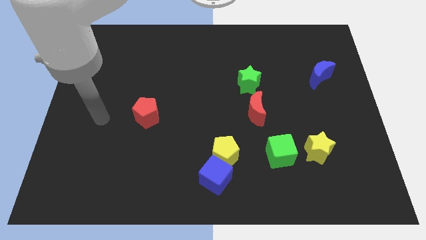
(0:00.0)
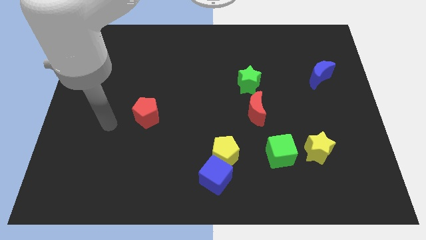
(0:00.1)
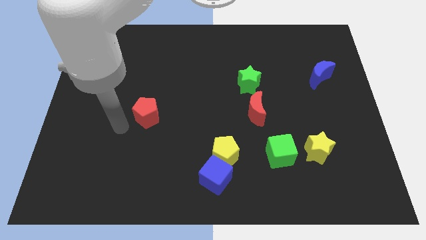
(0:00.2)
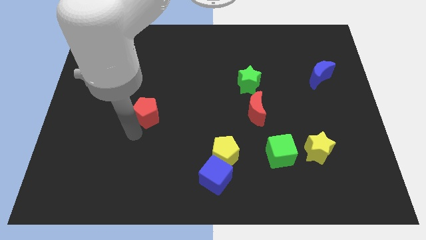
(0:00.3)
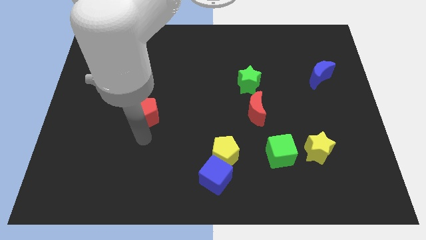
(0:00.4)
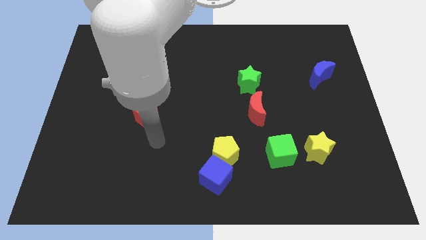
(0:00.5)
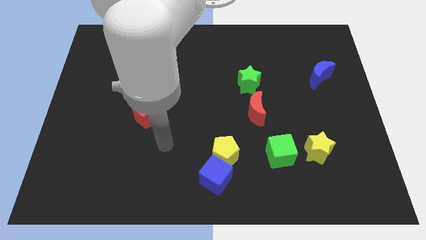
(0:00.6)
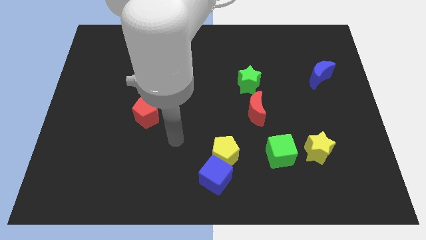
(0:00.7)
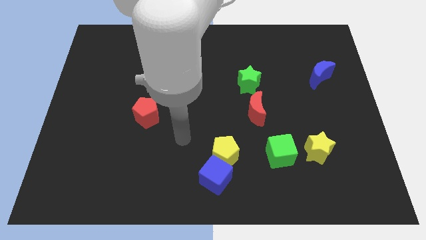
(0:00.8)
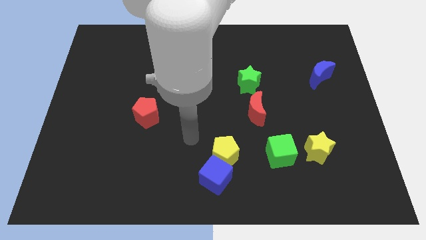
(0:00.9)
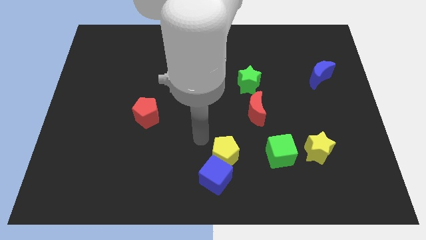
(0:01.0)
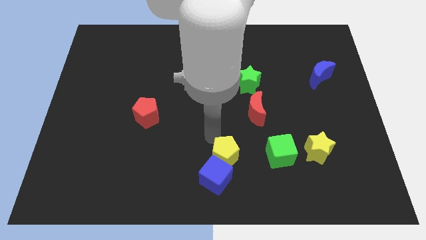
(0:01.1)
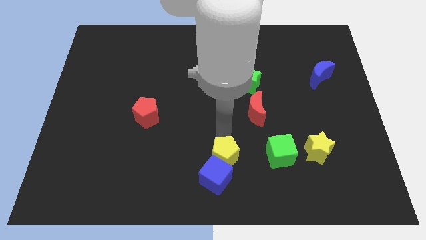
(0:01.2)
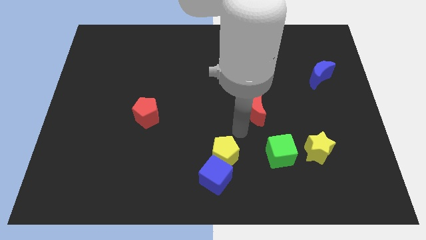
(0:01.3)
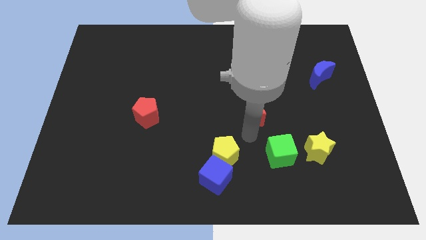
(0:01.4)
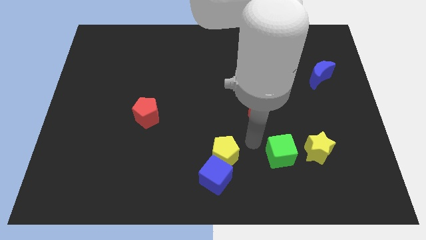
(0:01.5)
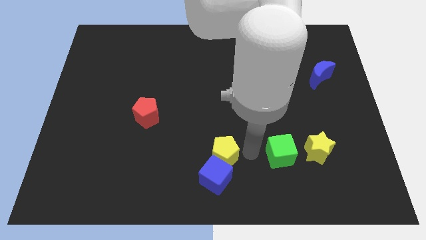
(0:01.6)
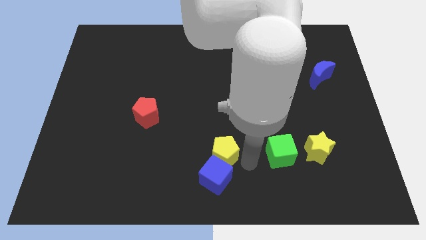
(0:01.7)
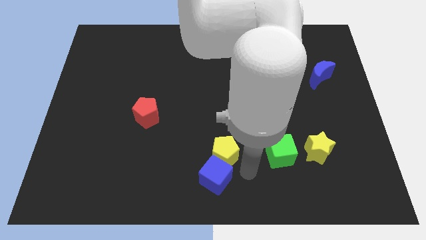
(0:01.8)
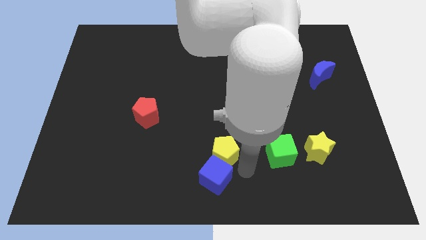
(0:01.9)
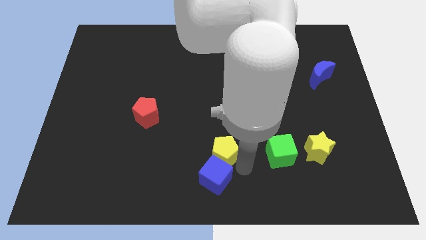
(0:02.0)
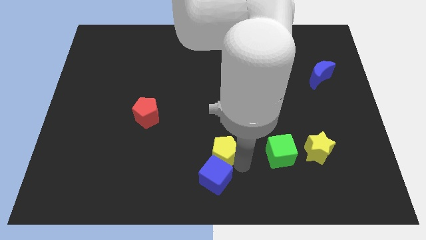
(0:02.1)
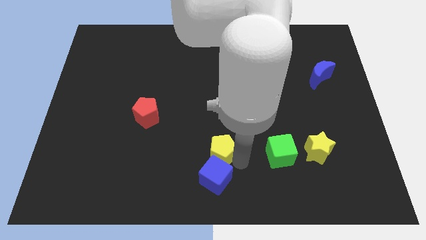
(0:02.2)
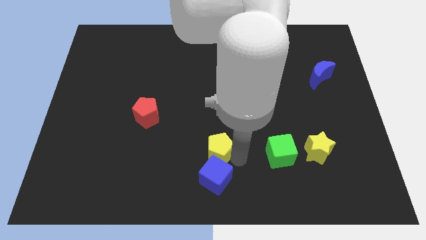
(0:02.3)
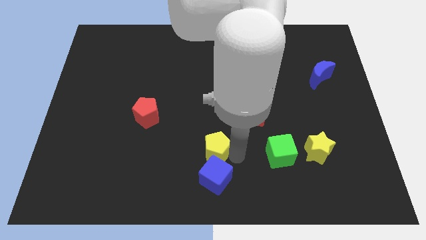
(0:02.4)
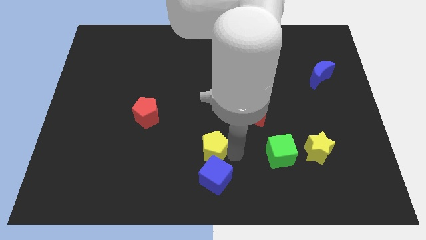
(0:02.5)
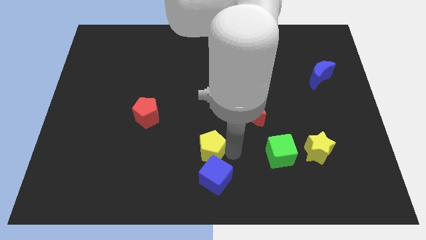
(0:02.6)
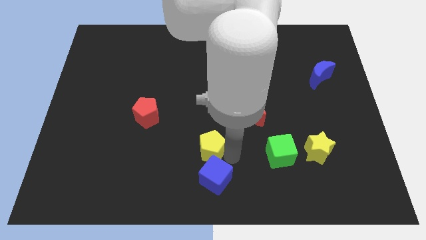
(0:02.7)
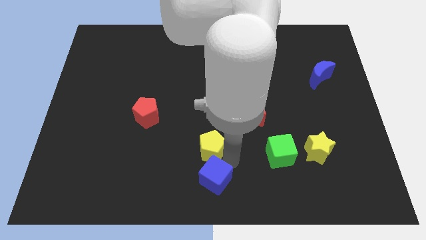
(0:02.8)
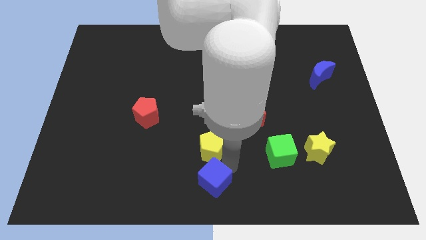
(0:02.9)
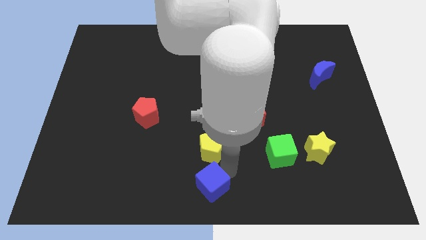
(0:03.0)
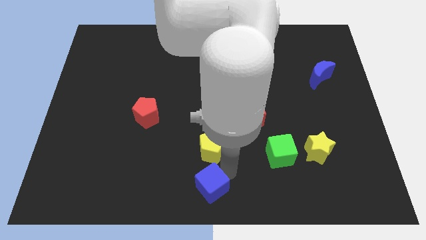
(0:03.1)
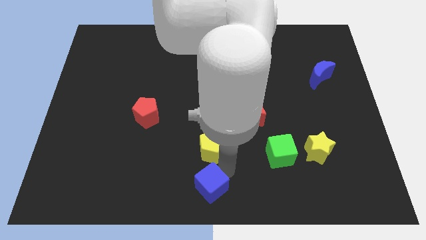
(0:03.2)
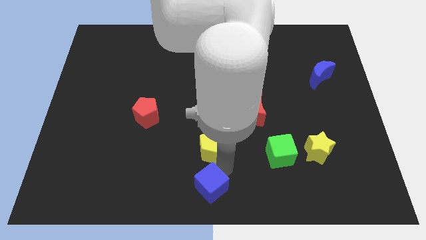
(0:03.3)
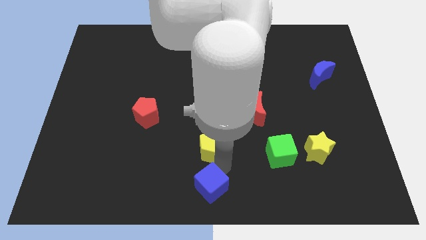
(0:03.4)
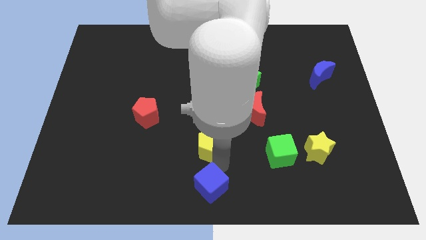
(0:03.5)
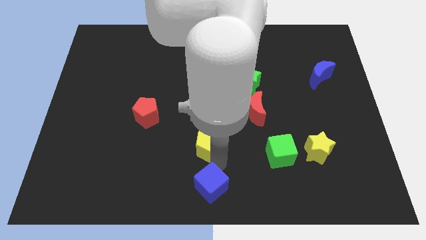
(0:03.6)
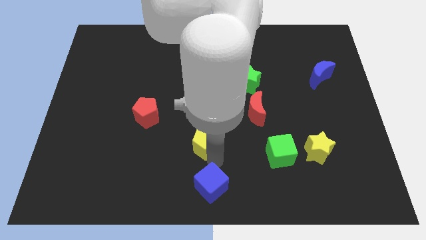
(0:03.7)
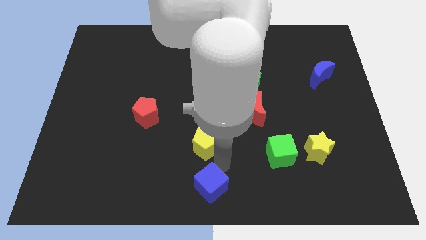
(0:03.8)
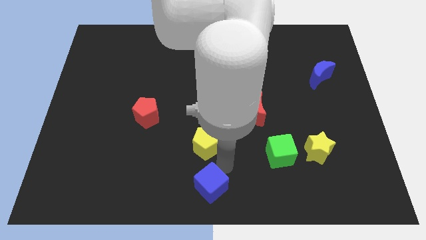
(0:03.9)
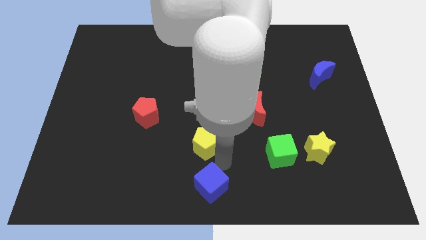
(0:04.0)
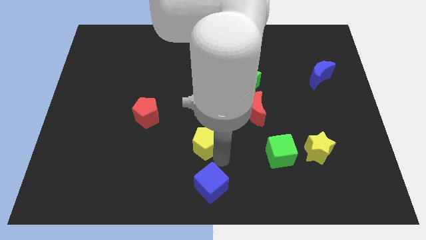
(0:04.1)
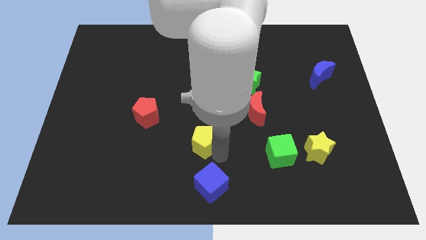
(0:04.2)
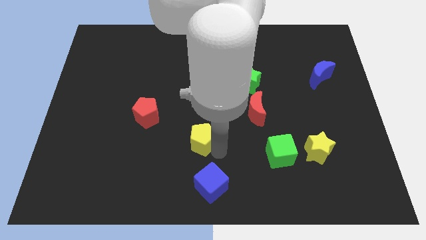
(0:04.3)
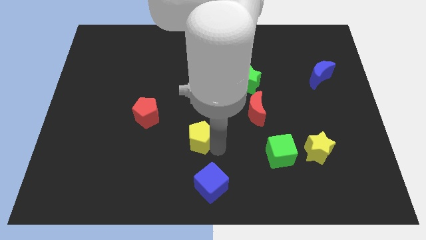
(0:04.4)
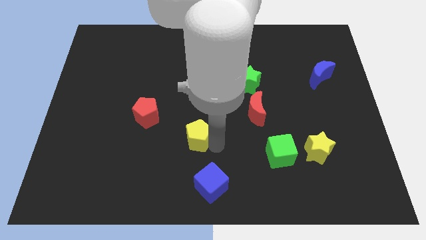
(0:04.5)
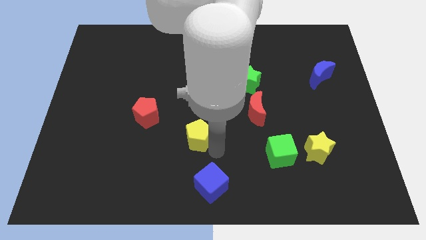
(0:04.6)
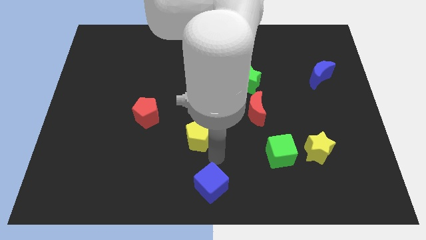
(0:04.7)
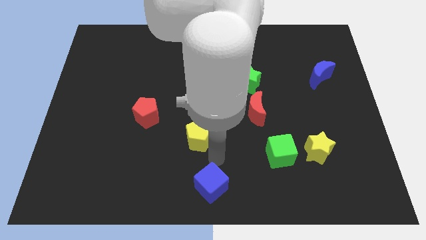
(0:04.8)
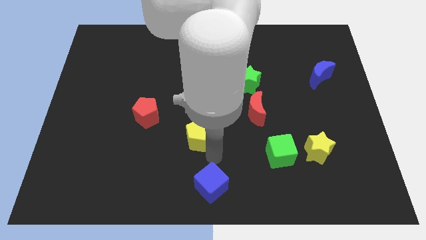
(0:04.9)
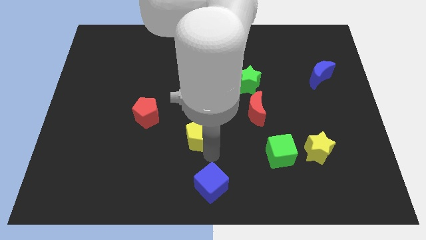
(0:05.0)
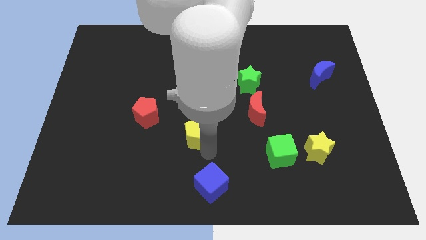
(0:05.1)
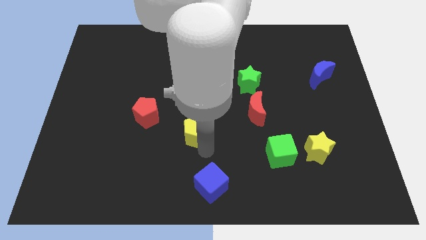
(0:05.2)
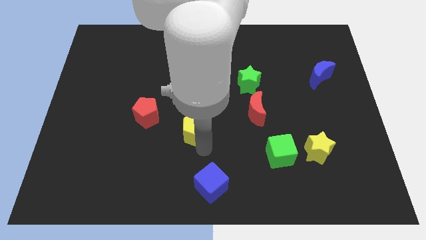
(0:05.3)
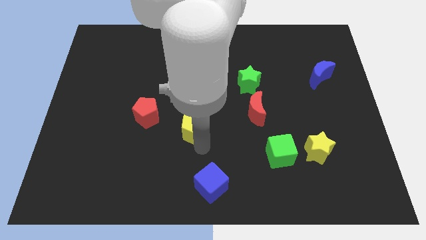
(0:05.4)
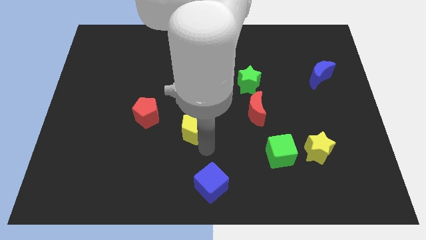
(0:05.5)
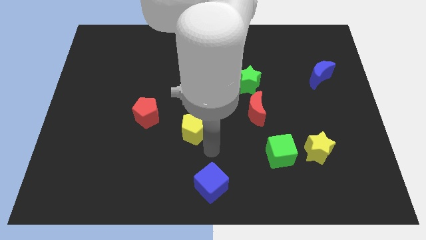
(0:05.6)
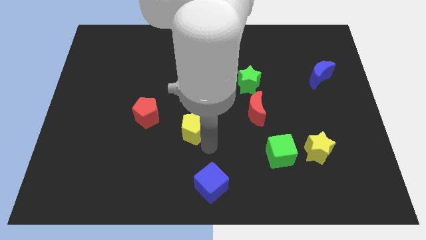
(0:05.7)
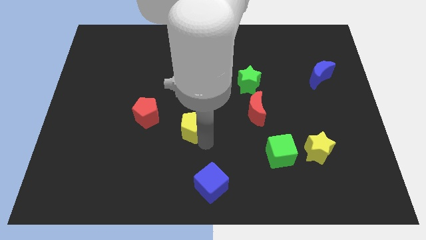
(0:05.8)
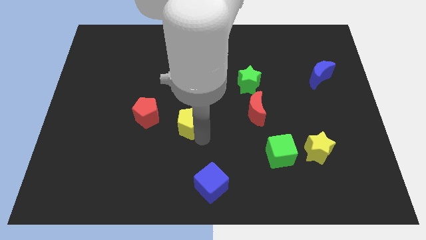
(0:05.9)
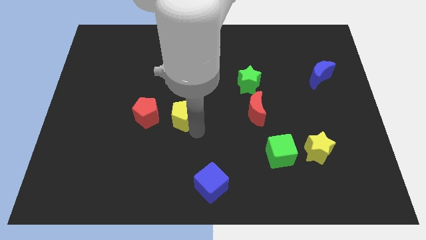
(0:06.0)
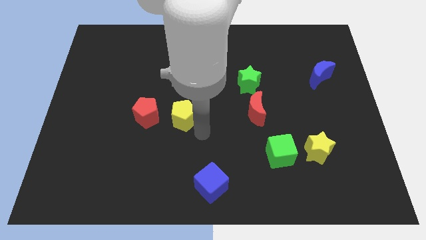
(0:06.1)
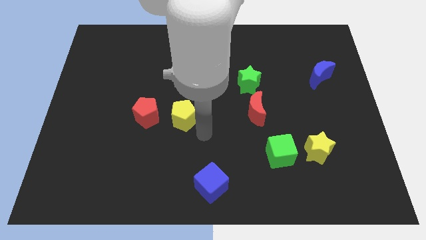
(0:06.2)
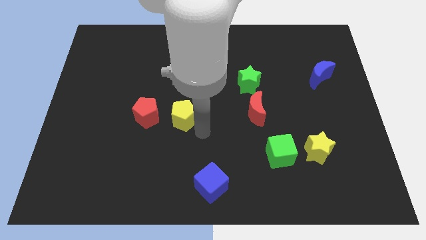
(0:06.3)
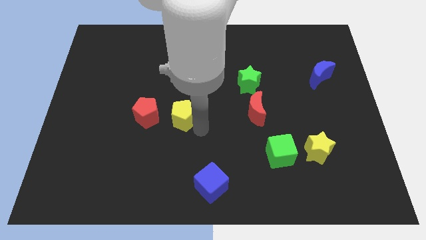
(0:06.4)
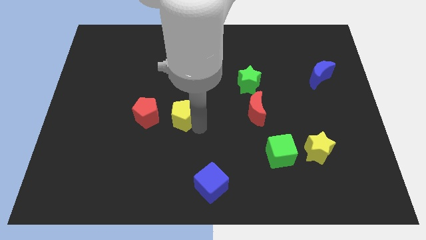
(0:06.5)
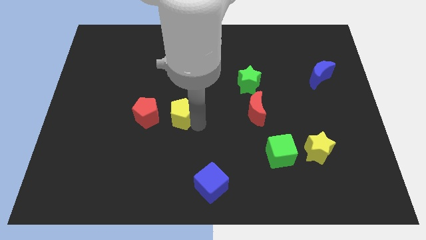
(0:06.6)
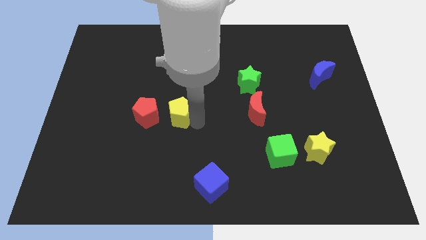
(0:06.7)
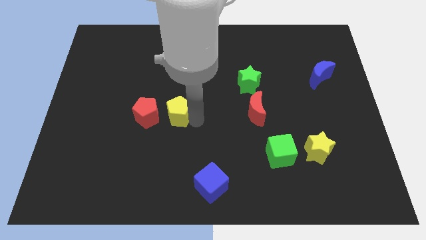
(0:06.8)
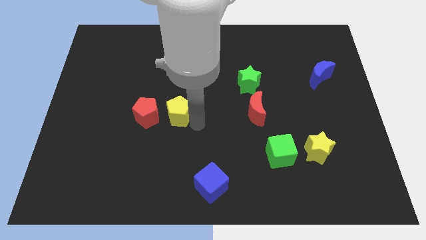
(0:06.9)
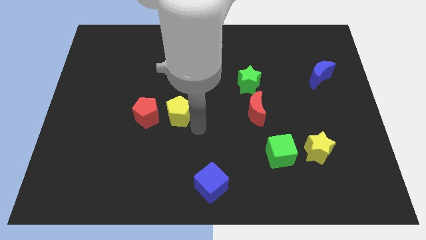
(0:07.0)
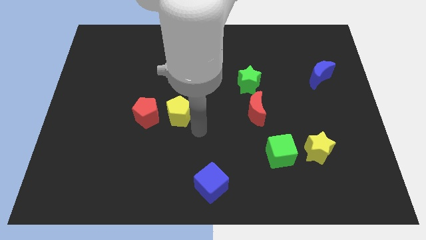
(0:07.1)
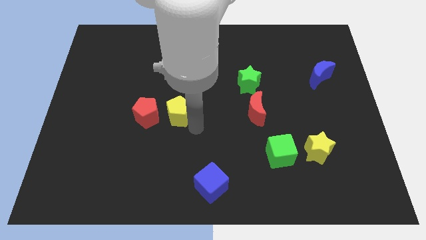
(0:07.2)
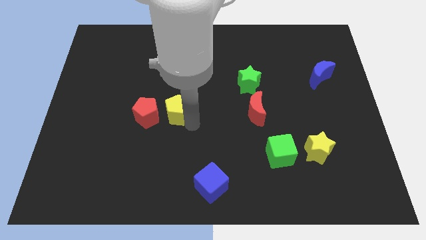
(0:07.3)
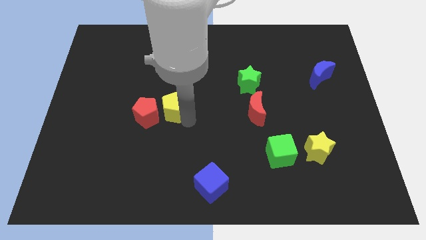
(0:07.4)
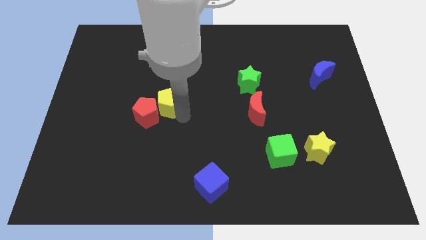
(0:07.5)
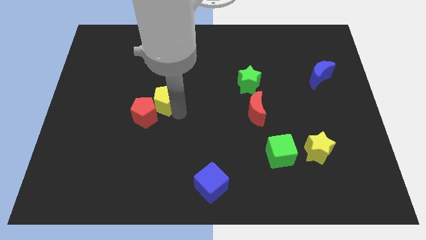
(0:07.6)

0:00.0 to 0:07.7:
slide the yellow pentagon upwards and left
